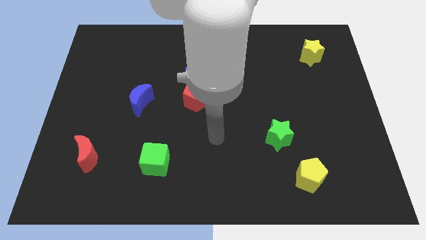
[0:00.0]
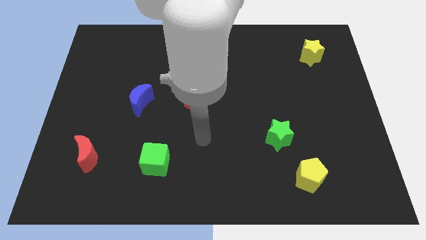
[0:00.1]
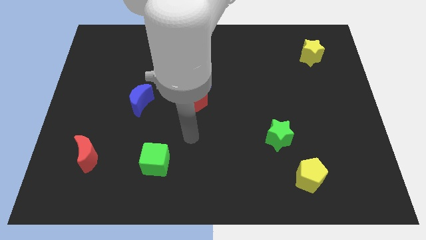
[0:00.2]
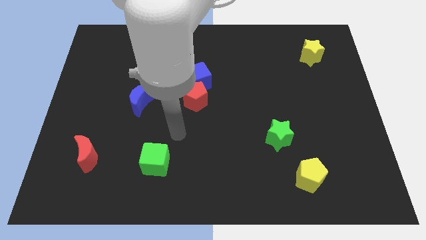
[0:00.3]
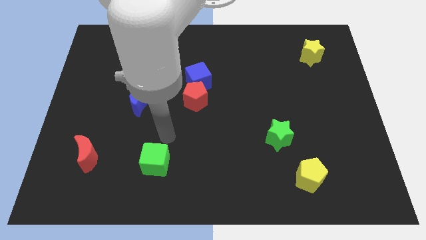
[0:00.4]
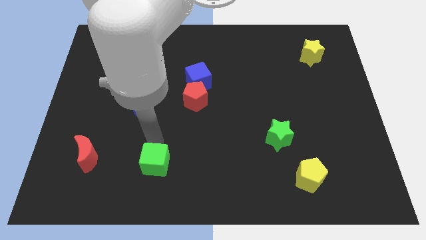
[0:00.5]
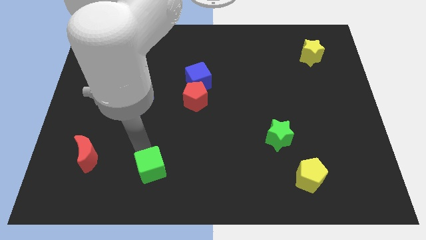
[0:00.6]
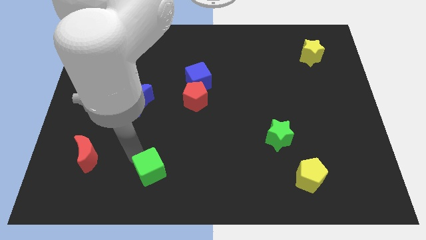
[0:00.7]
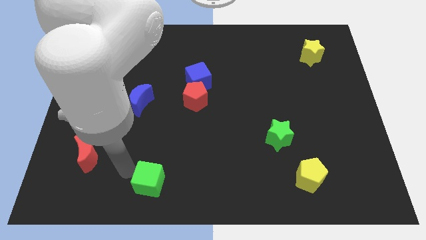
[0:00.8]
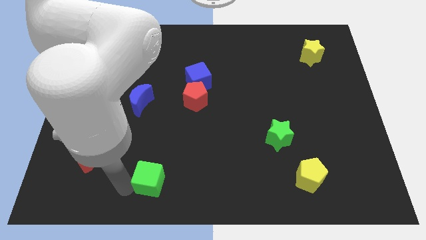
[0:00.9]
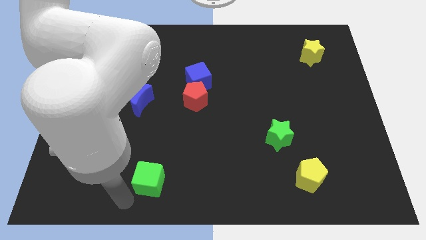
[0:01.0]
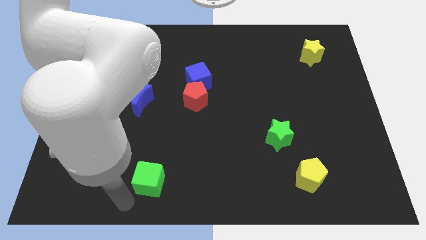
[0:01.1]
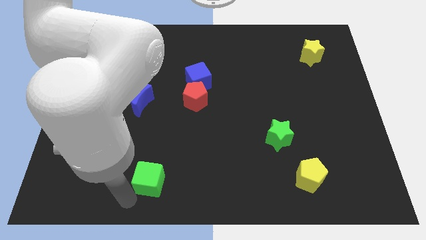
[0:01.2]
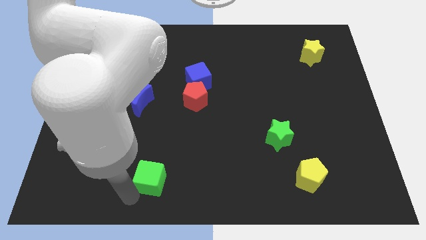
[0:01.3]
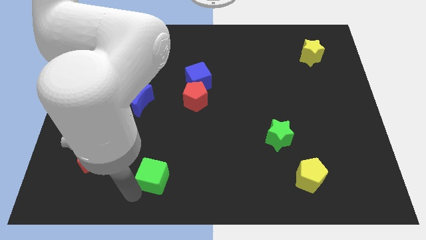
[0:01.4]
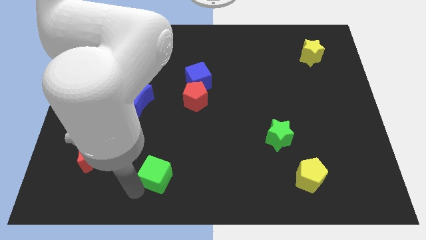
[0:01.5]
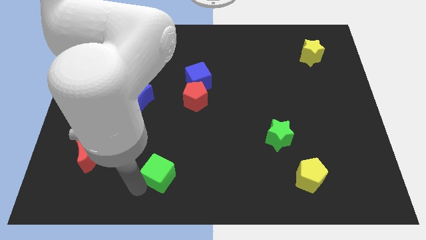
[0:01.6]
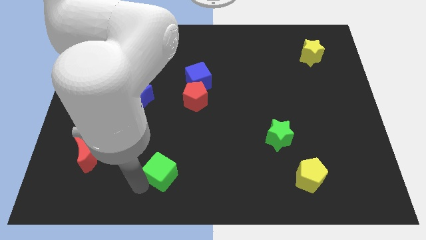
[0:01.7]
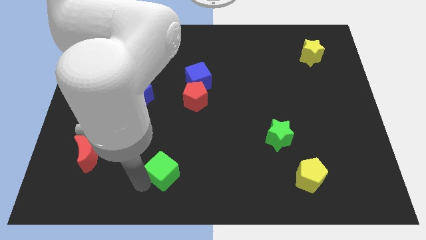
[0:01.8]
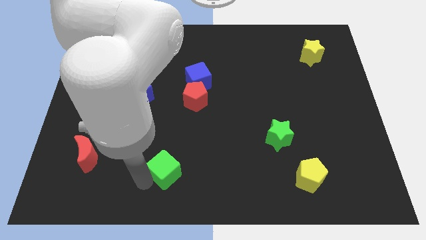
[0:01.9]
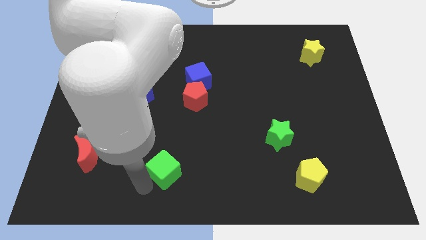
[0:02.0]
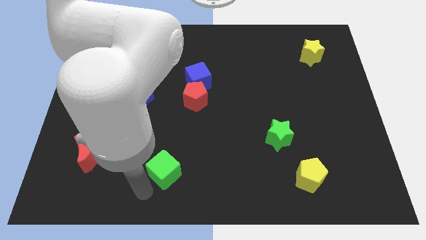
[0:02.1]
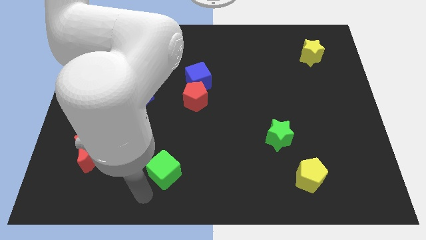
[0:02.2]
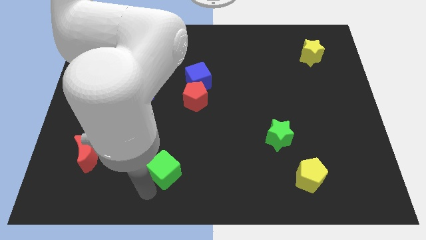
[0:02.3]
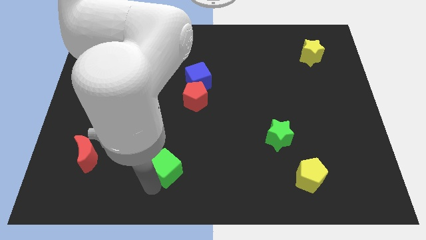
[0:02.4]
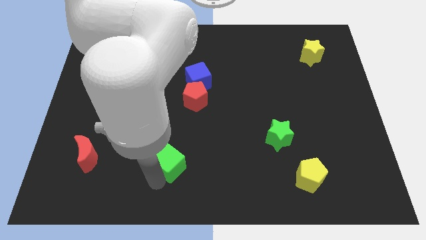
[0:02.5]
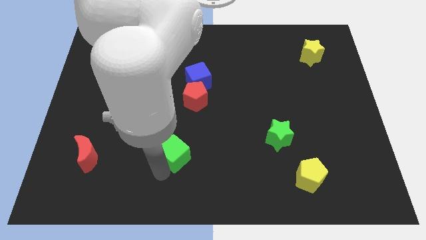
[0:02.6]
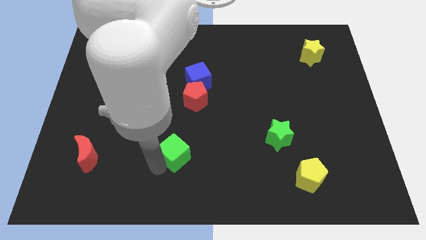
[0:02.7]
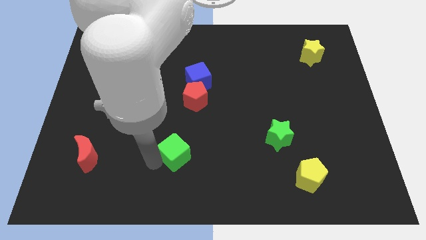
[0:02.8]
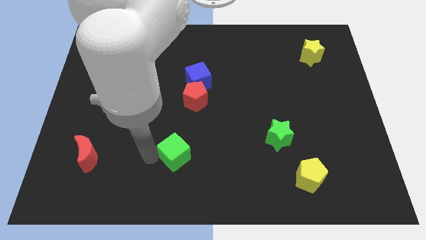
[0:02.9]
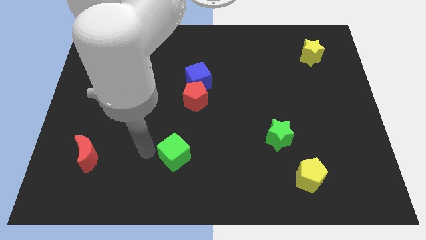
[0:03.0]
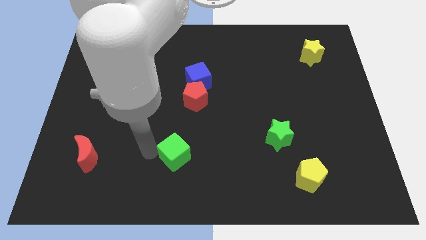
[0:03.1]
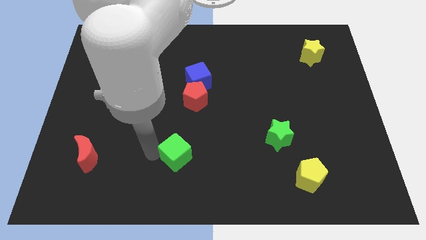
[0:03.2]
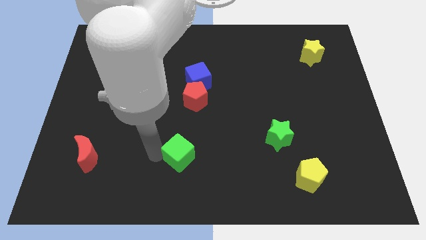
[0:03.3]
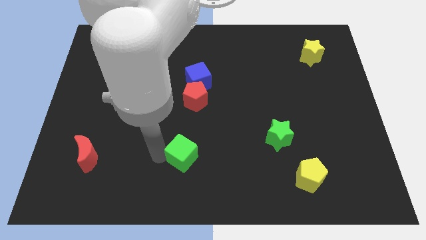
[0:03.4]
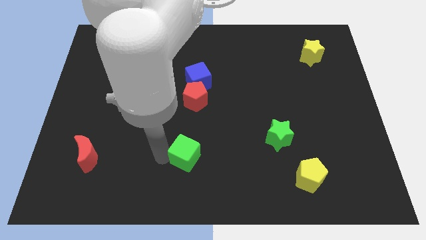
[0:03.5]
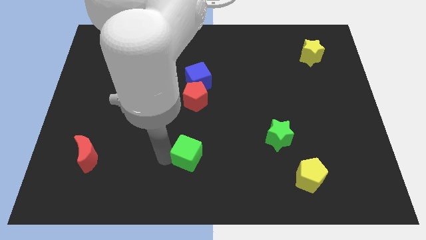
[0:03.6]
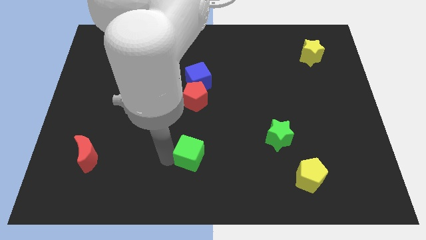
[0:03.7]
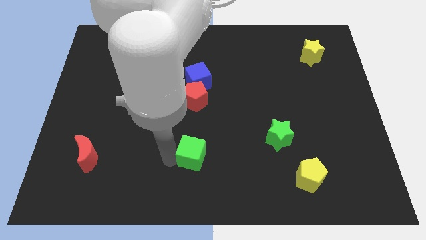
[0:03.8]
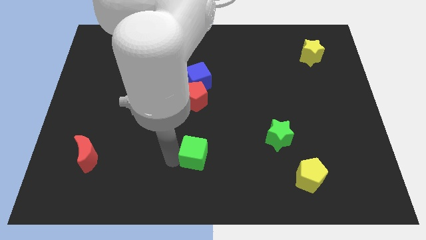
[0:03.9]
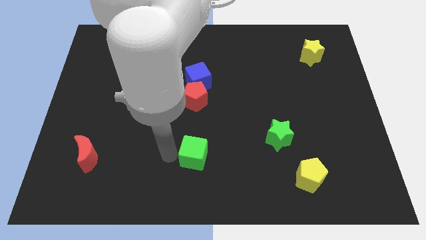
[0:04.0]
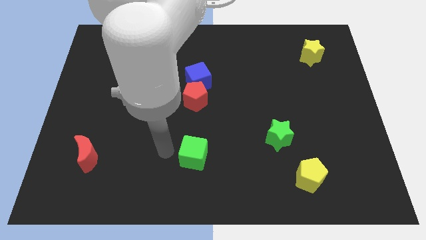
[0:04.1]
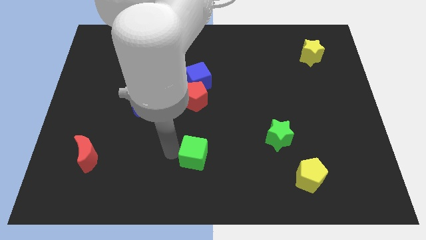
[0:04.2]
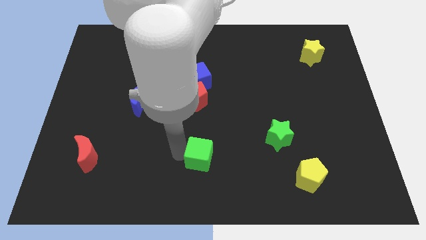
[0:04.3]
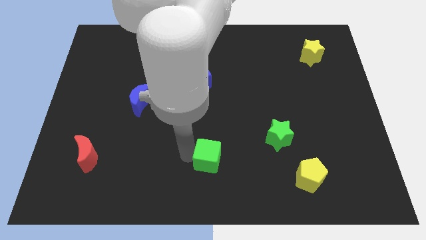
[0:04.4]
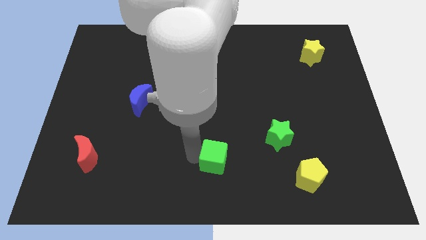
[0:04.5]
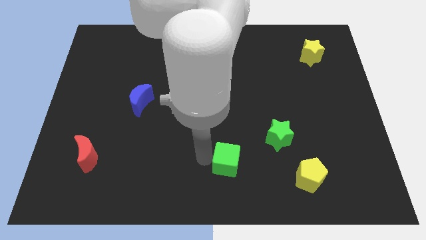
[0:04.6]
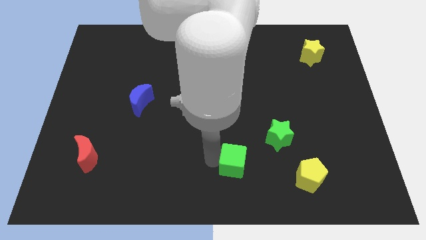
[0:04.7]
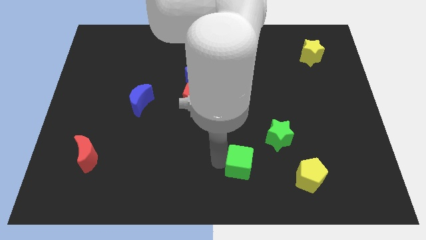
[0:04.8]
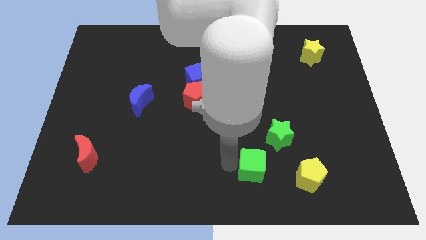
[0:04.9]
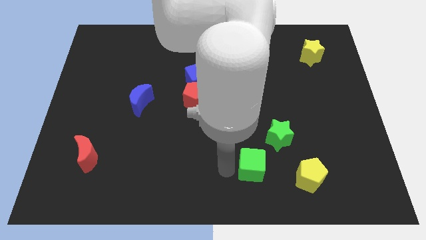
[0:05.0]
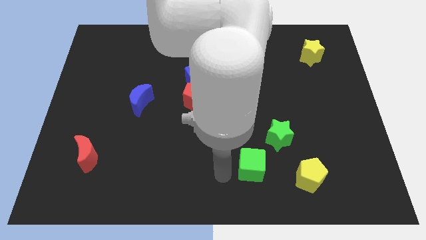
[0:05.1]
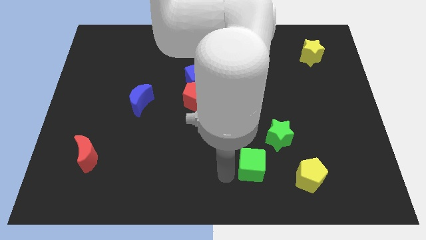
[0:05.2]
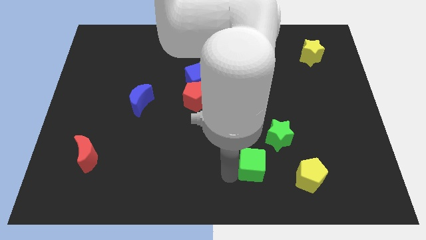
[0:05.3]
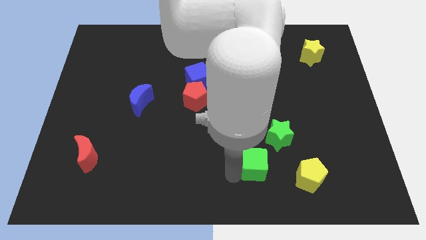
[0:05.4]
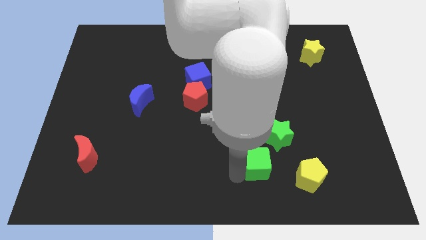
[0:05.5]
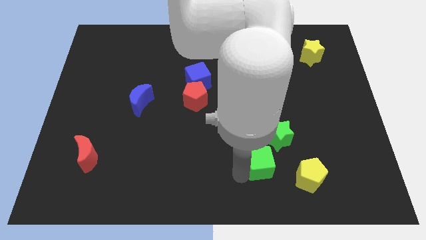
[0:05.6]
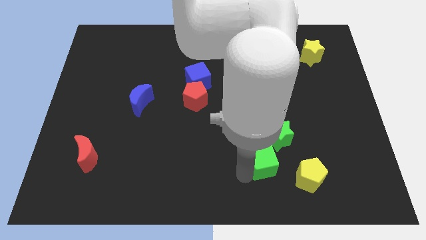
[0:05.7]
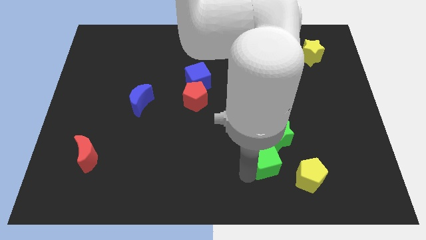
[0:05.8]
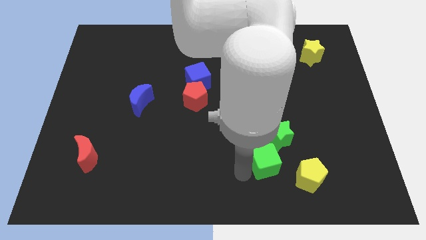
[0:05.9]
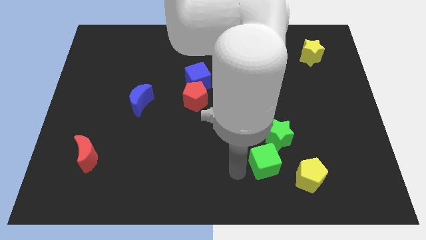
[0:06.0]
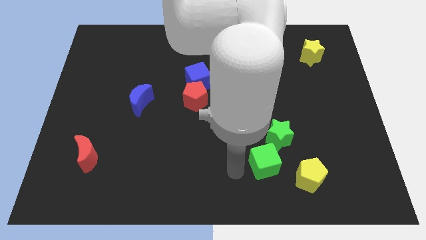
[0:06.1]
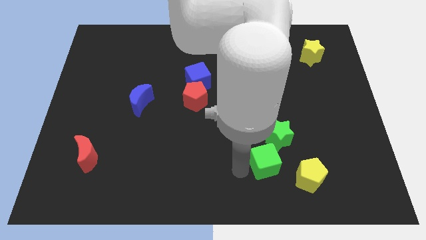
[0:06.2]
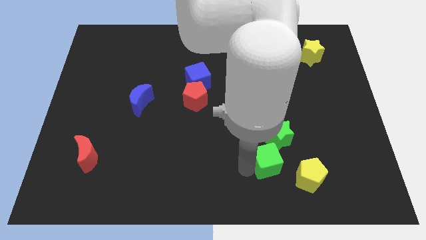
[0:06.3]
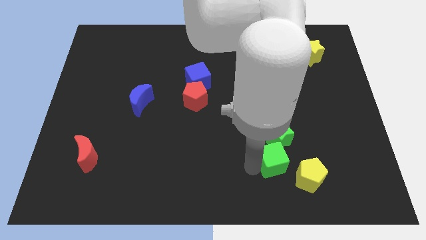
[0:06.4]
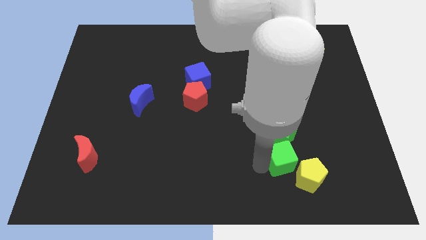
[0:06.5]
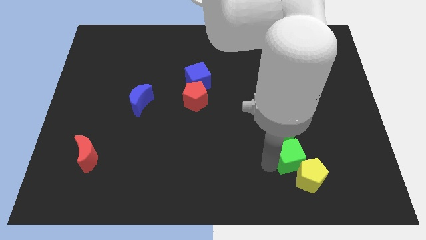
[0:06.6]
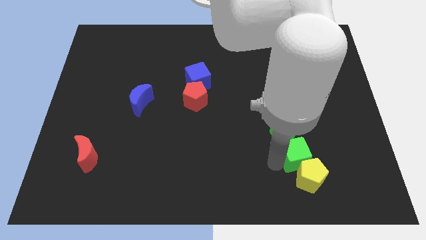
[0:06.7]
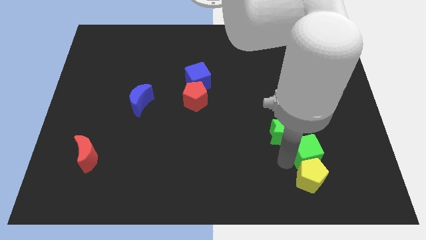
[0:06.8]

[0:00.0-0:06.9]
move the green cube to the right of the green star

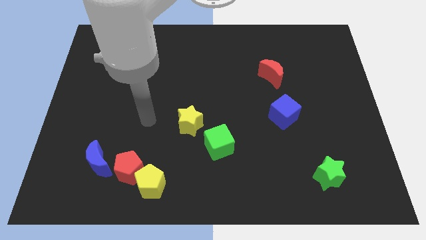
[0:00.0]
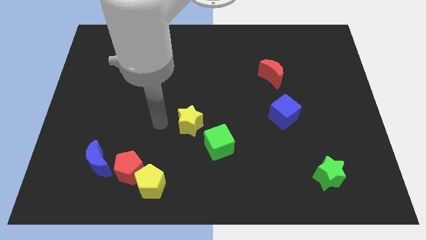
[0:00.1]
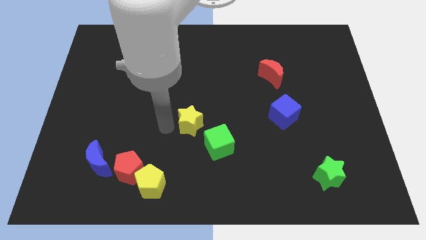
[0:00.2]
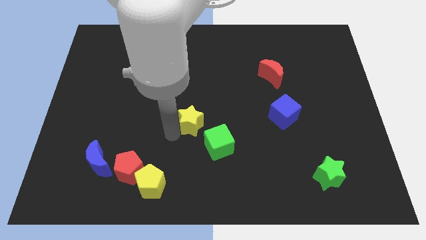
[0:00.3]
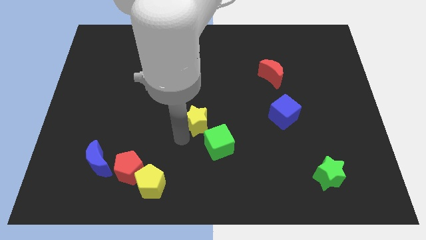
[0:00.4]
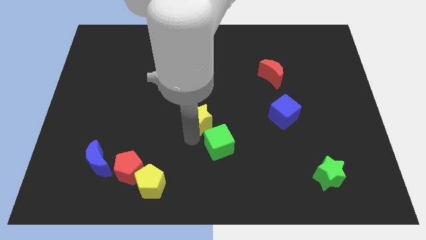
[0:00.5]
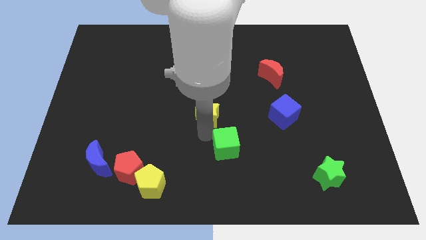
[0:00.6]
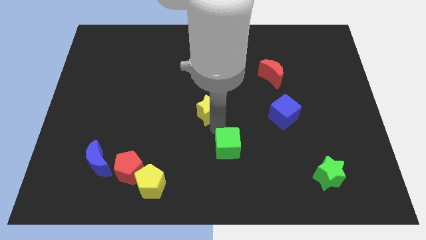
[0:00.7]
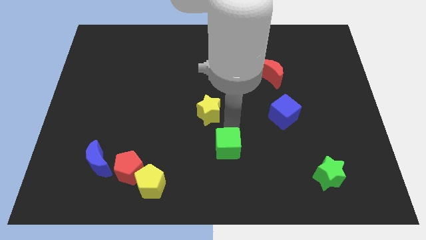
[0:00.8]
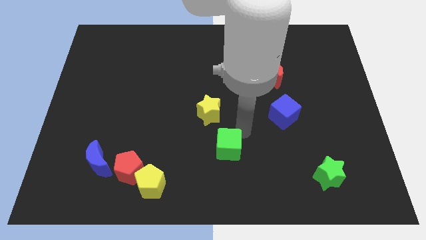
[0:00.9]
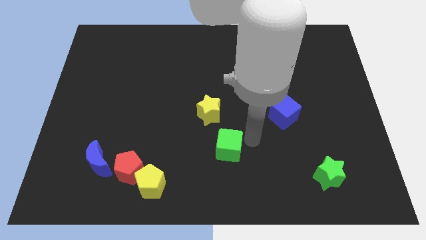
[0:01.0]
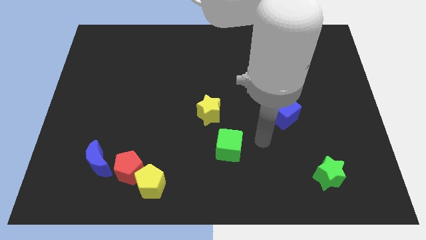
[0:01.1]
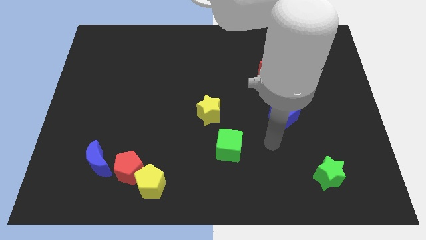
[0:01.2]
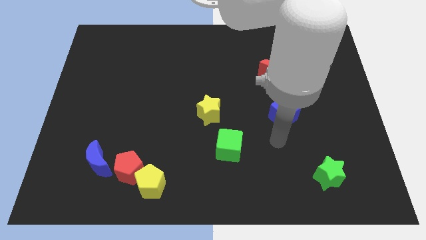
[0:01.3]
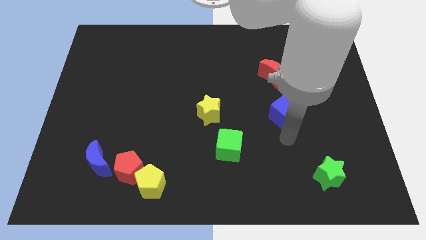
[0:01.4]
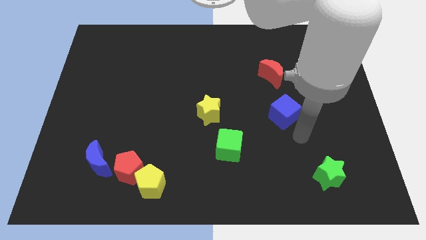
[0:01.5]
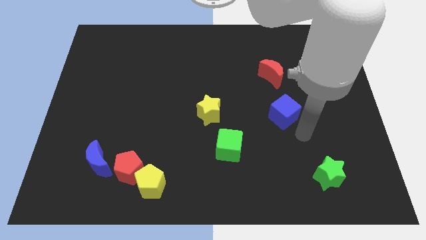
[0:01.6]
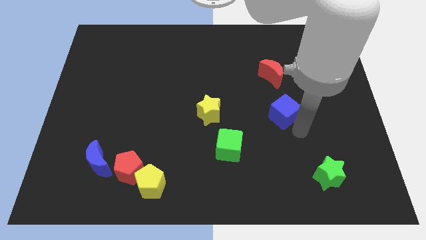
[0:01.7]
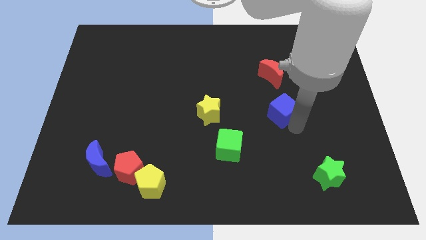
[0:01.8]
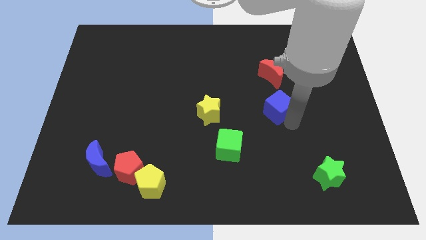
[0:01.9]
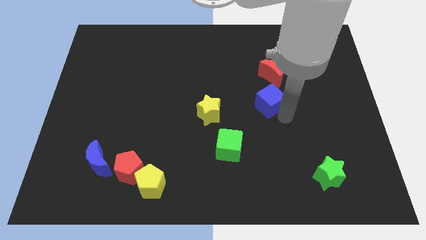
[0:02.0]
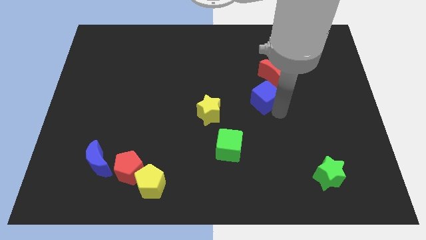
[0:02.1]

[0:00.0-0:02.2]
put the blue cube diagonally down and to the left of the red moon
